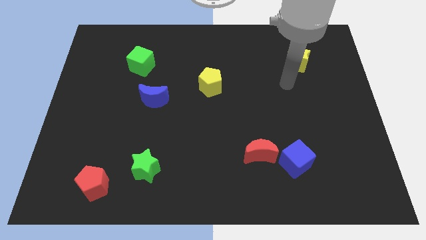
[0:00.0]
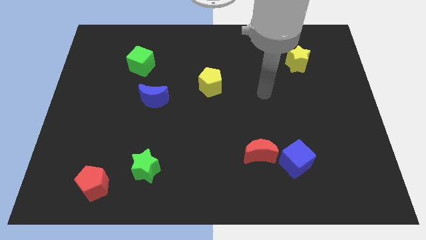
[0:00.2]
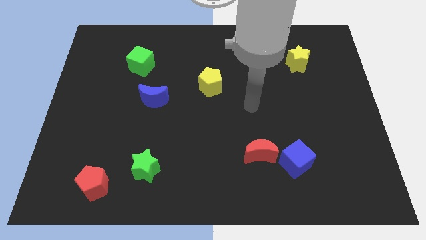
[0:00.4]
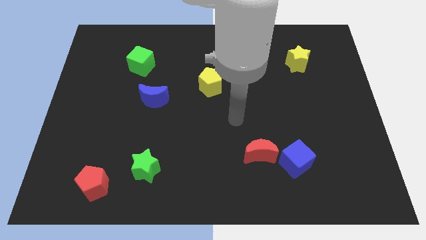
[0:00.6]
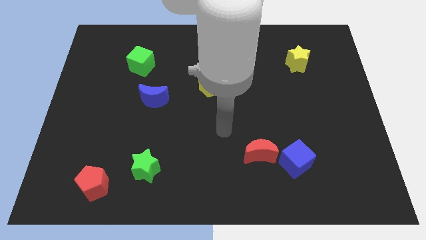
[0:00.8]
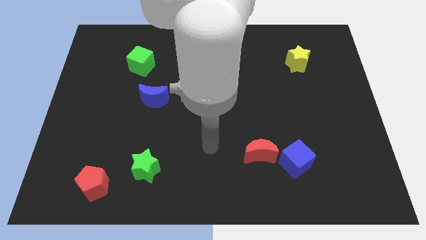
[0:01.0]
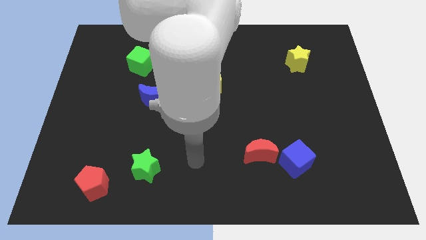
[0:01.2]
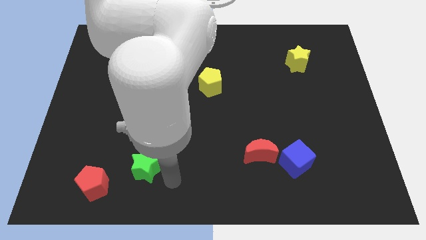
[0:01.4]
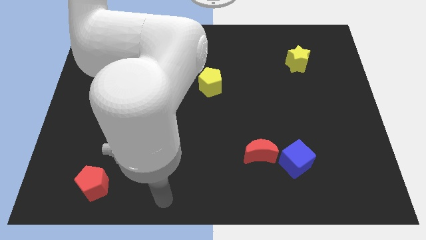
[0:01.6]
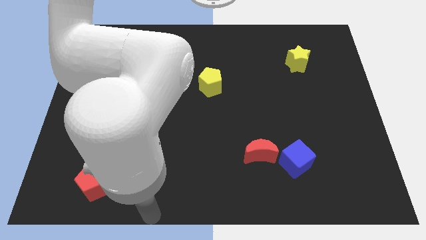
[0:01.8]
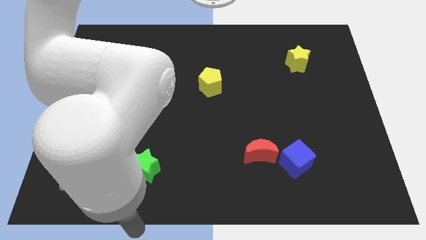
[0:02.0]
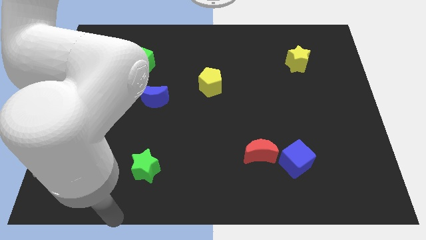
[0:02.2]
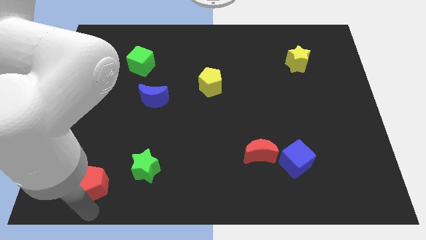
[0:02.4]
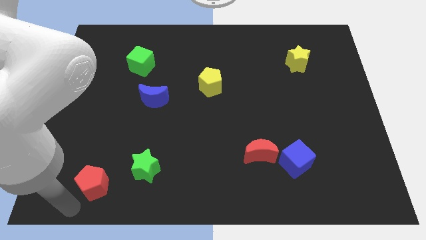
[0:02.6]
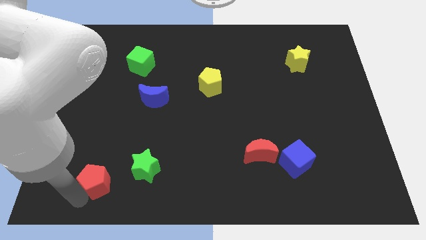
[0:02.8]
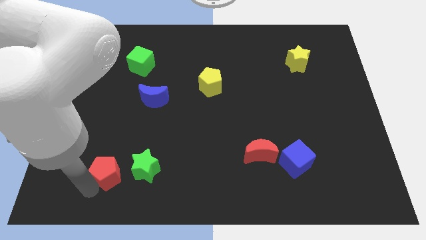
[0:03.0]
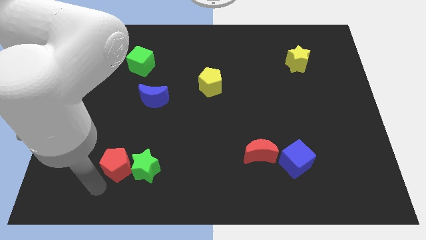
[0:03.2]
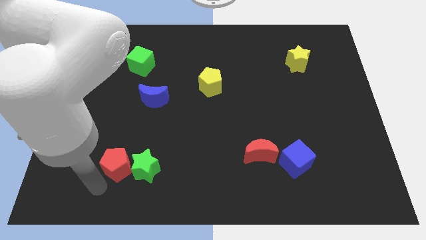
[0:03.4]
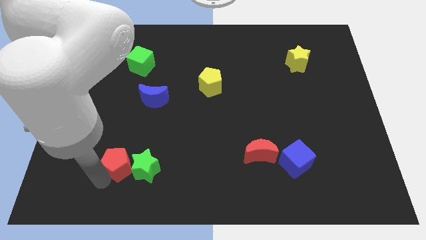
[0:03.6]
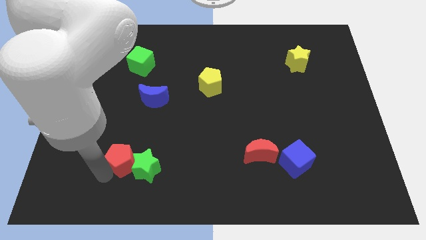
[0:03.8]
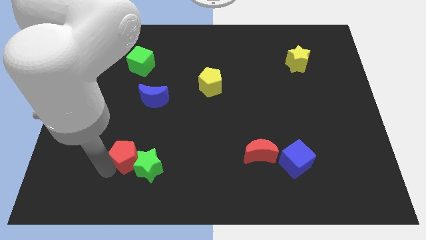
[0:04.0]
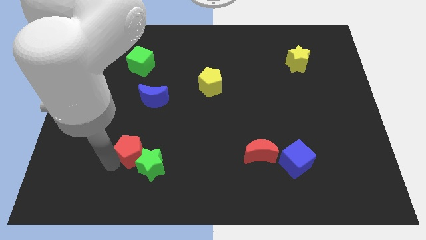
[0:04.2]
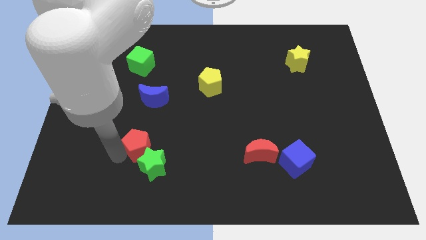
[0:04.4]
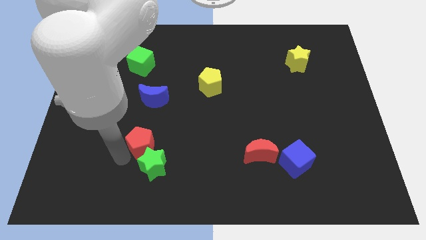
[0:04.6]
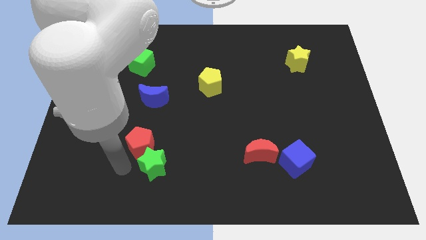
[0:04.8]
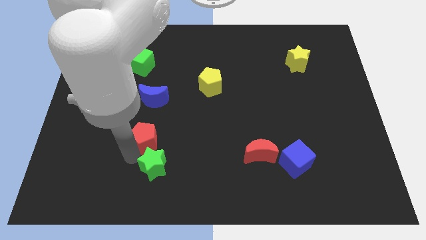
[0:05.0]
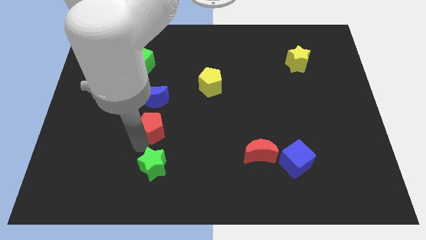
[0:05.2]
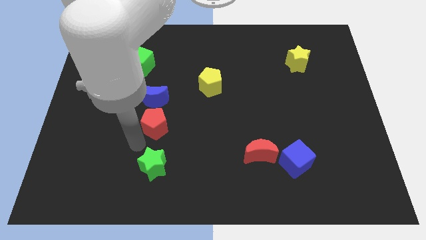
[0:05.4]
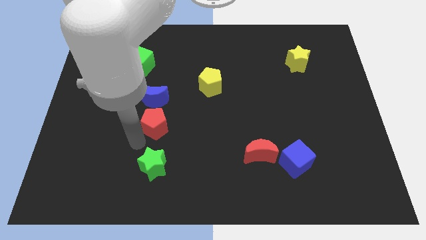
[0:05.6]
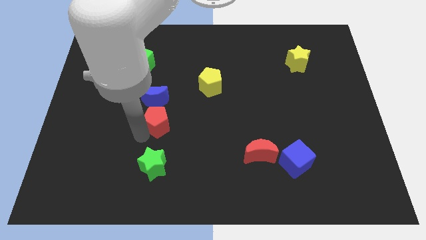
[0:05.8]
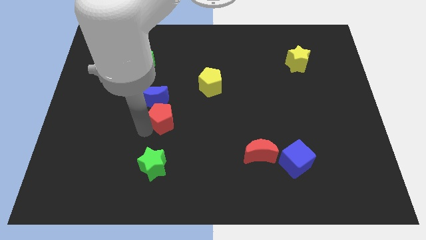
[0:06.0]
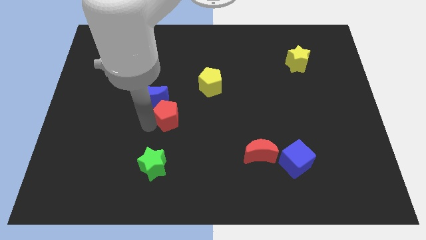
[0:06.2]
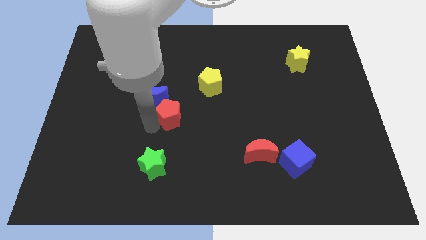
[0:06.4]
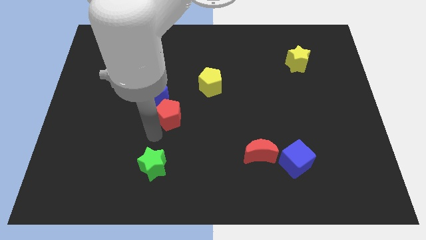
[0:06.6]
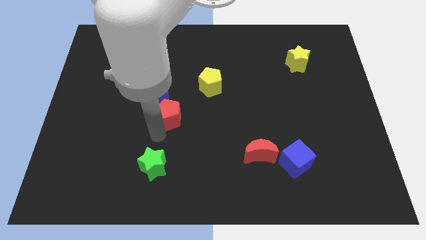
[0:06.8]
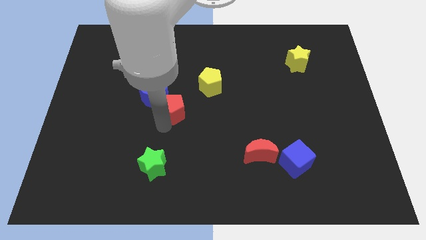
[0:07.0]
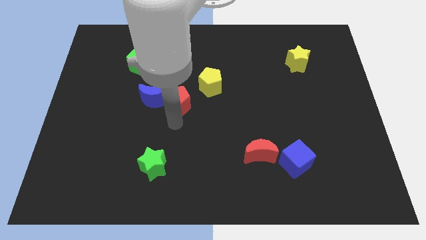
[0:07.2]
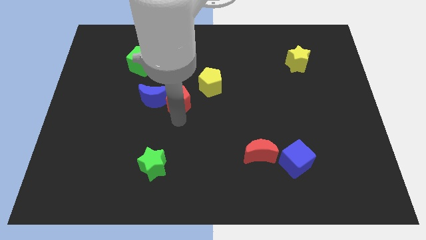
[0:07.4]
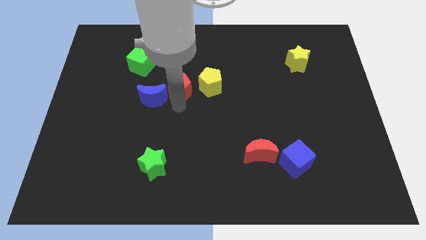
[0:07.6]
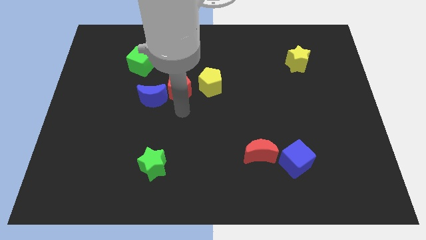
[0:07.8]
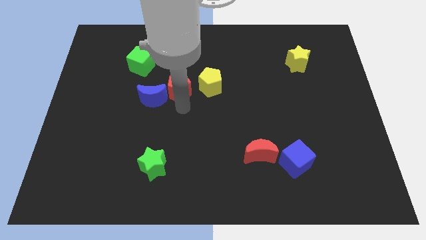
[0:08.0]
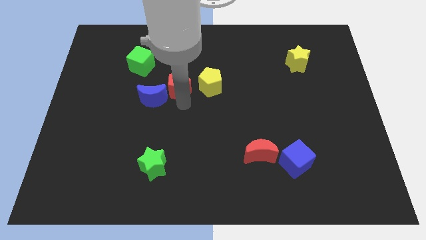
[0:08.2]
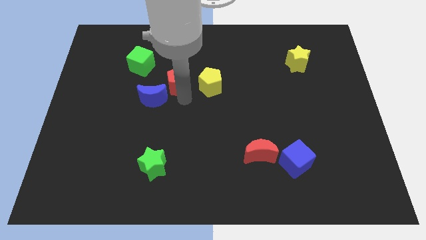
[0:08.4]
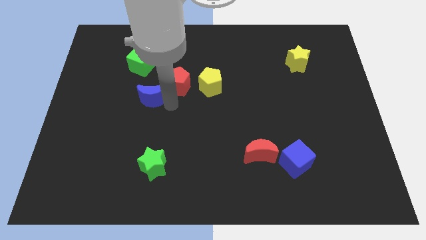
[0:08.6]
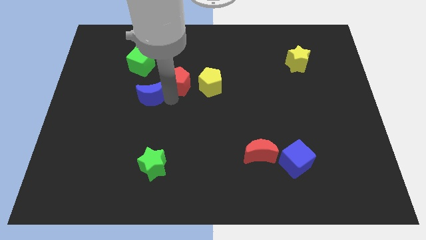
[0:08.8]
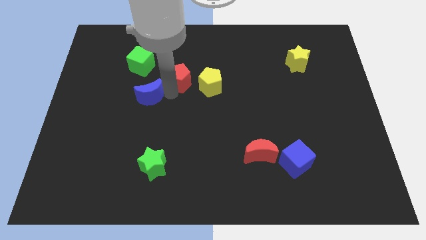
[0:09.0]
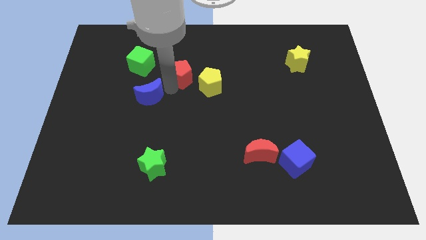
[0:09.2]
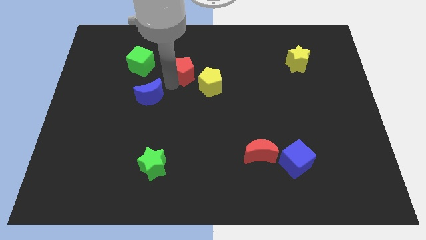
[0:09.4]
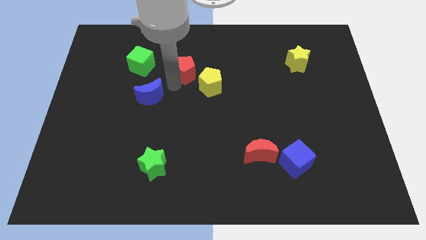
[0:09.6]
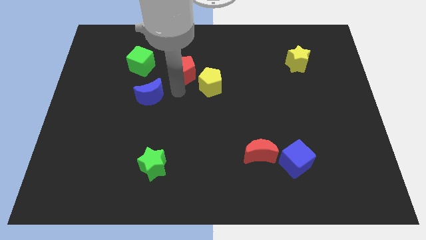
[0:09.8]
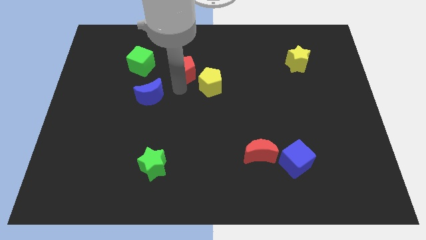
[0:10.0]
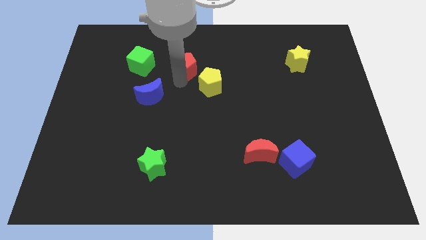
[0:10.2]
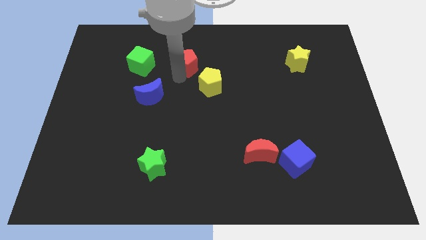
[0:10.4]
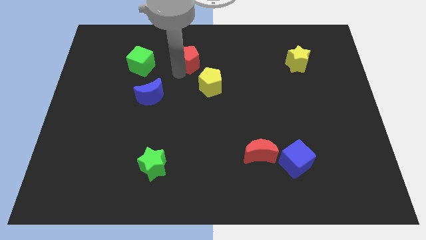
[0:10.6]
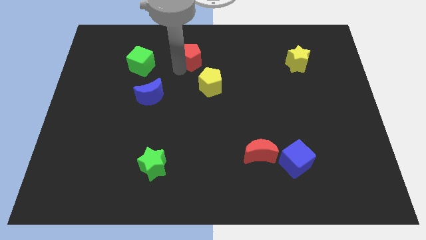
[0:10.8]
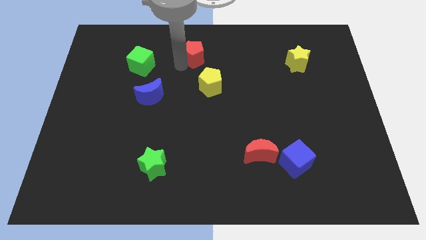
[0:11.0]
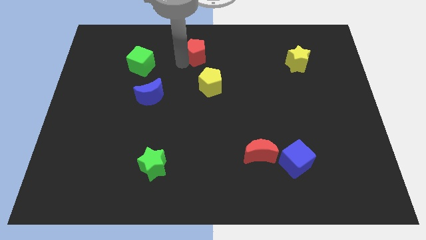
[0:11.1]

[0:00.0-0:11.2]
put the red pentagon to the towards your base

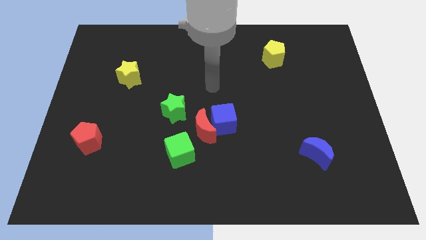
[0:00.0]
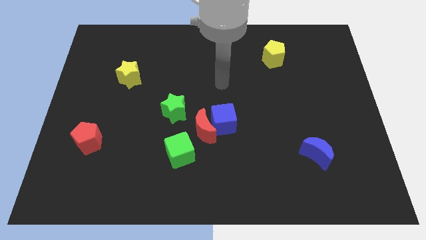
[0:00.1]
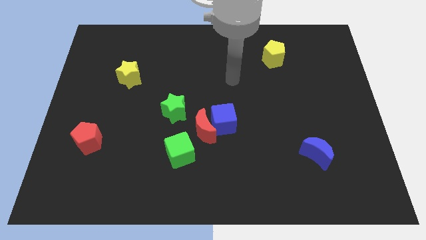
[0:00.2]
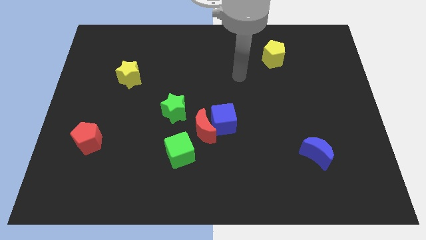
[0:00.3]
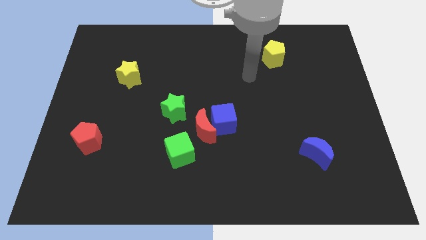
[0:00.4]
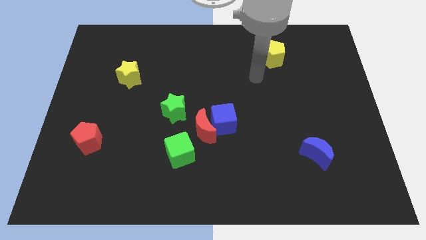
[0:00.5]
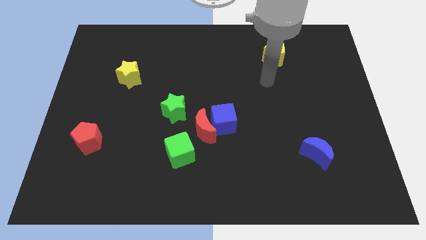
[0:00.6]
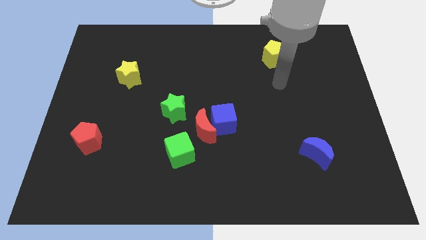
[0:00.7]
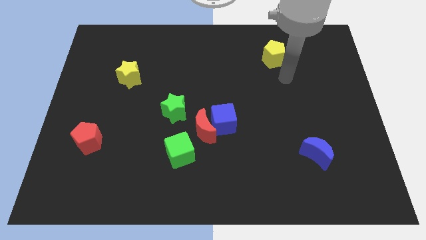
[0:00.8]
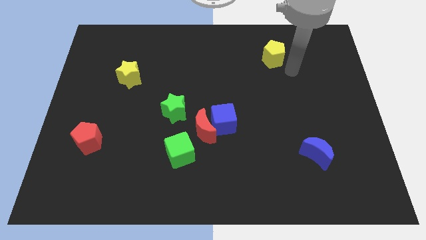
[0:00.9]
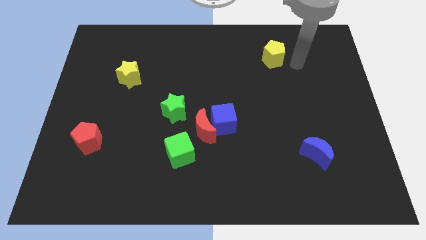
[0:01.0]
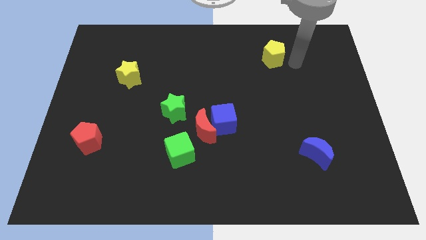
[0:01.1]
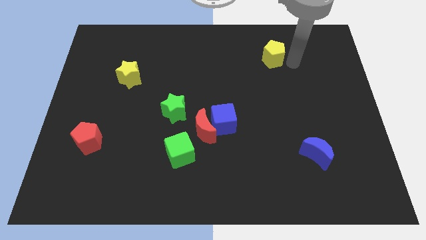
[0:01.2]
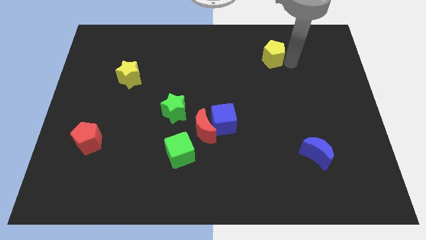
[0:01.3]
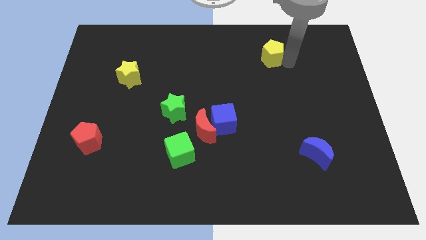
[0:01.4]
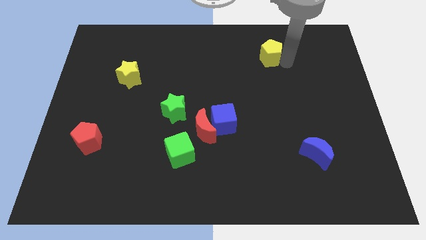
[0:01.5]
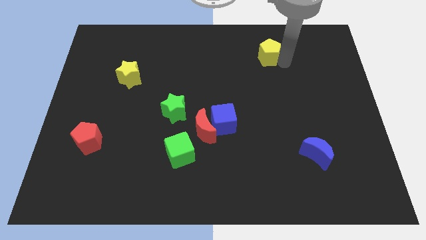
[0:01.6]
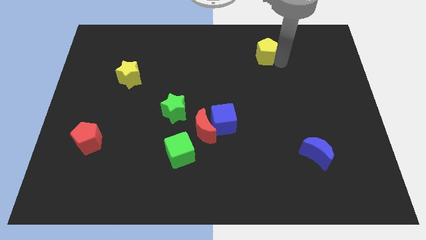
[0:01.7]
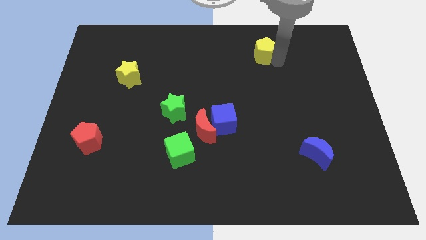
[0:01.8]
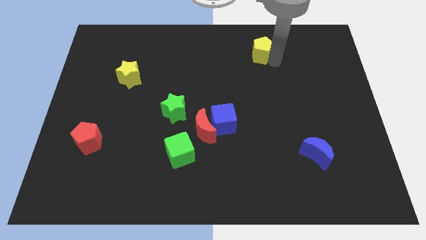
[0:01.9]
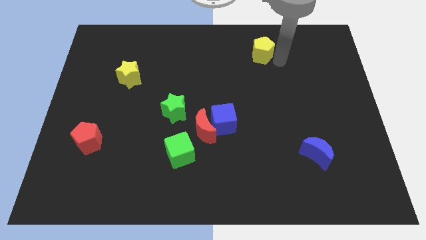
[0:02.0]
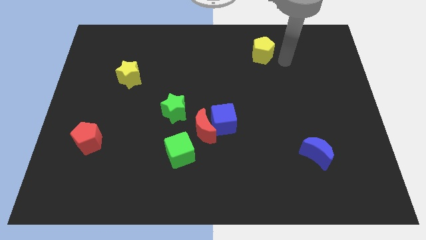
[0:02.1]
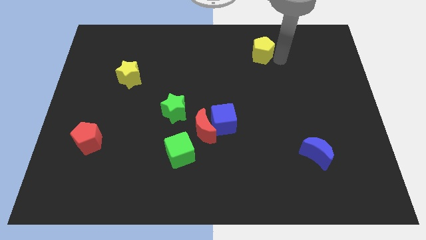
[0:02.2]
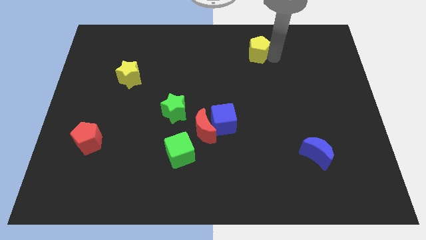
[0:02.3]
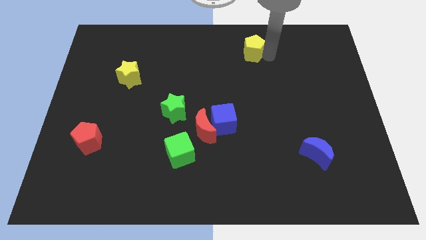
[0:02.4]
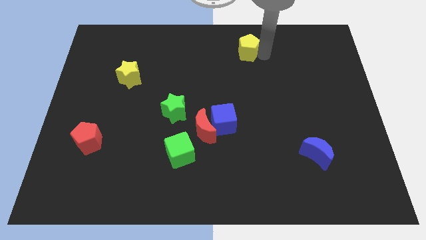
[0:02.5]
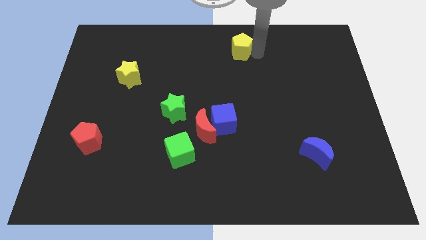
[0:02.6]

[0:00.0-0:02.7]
slide the yellow pentagon to the top side
